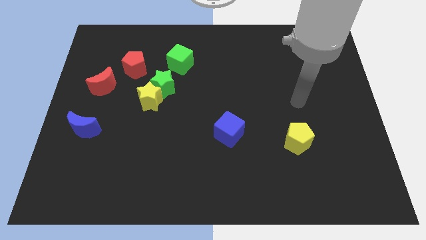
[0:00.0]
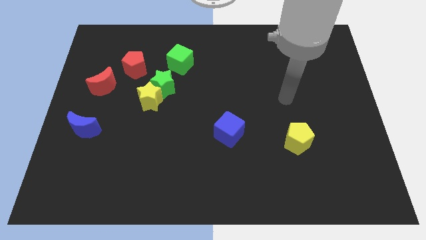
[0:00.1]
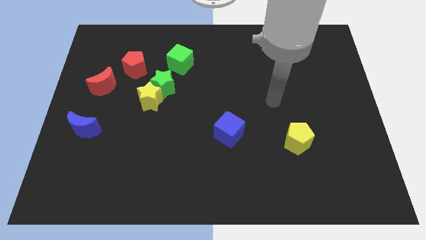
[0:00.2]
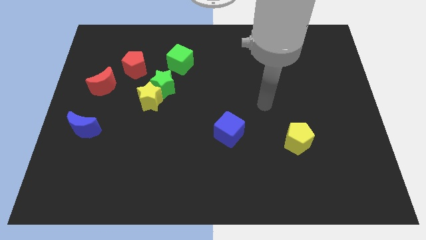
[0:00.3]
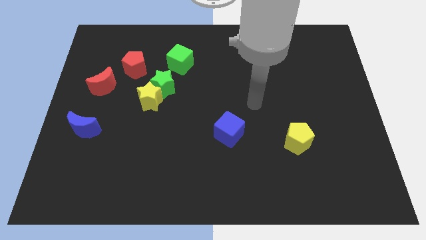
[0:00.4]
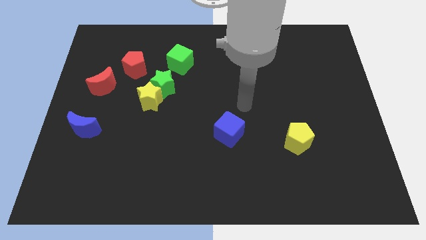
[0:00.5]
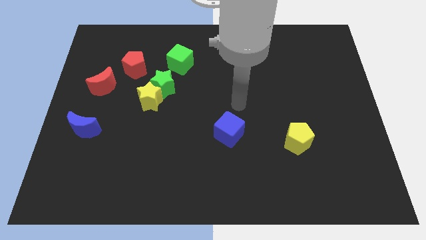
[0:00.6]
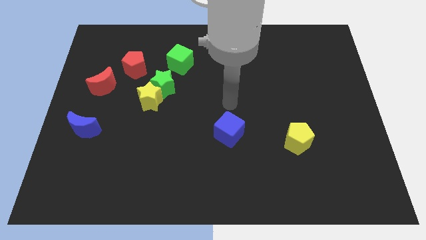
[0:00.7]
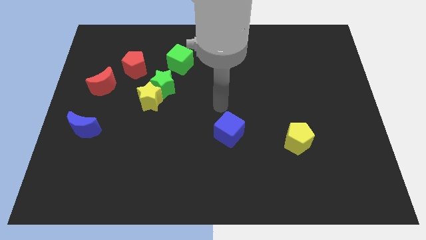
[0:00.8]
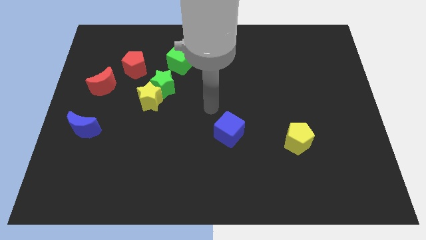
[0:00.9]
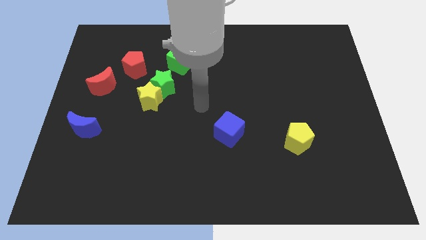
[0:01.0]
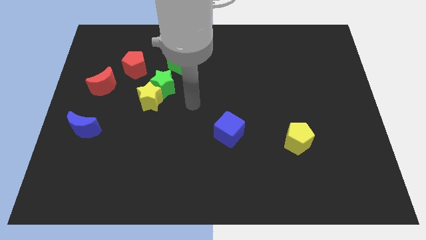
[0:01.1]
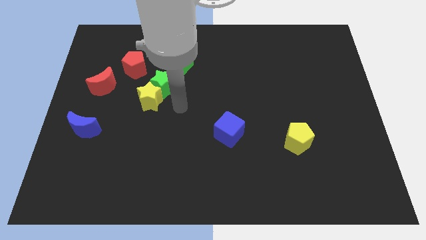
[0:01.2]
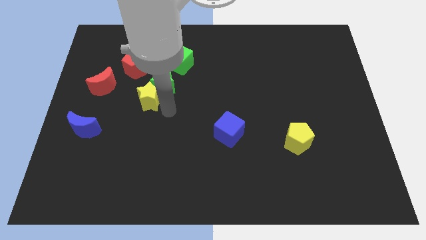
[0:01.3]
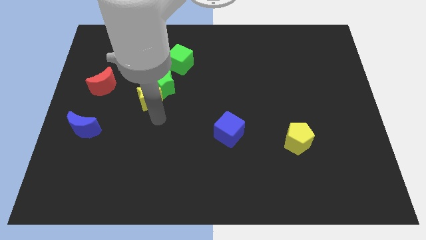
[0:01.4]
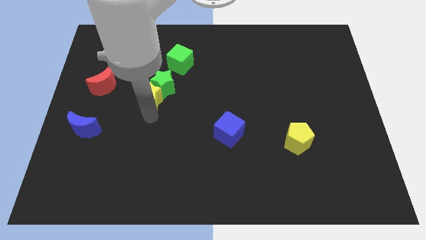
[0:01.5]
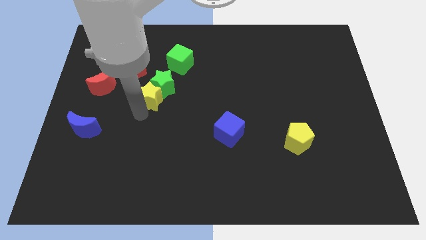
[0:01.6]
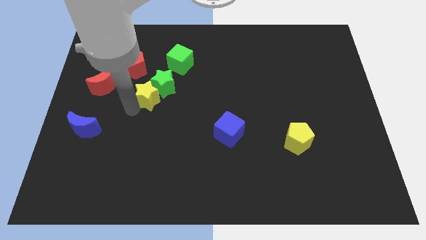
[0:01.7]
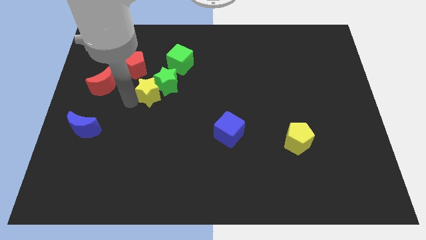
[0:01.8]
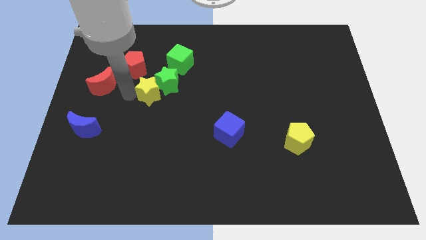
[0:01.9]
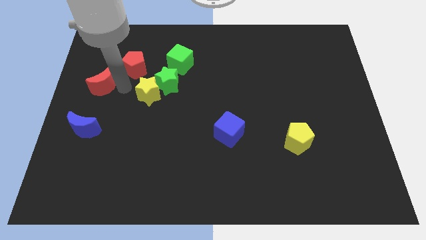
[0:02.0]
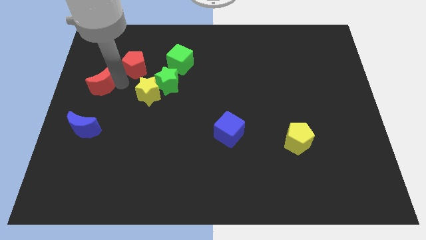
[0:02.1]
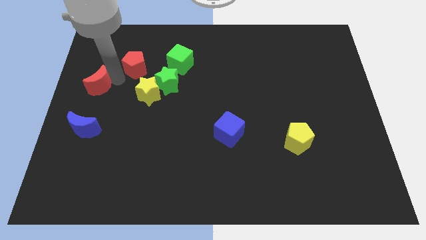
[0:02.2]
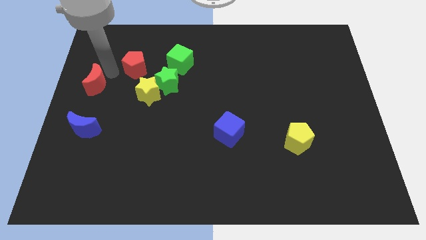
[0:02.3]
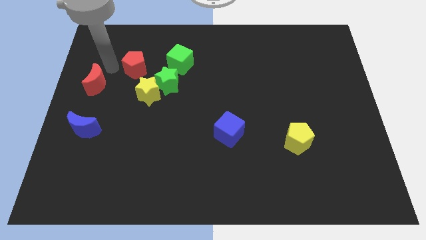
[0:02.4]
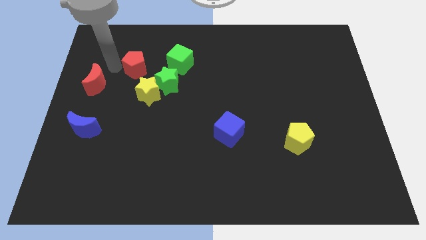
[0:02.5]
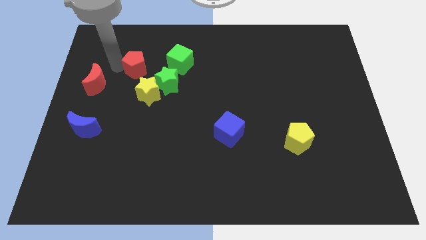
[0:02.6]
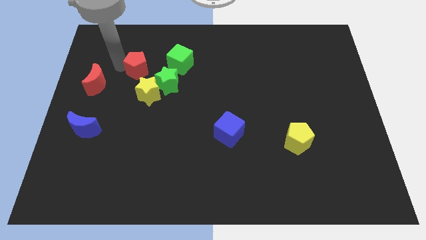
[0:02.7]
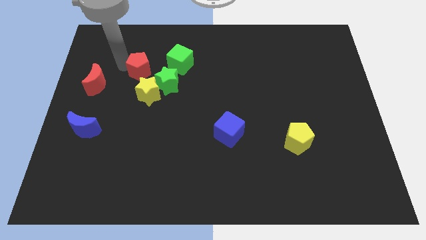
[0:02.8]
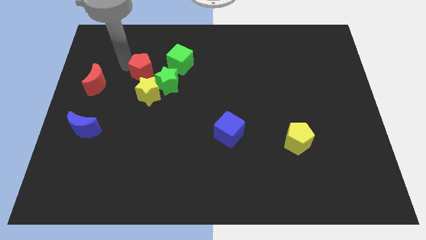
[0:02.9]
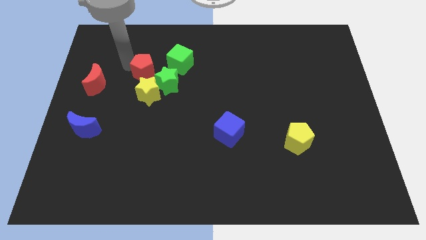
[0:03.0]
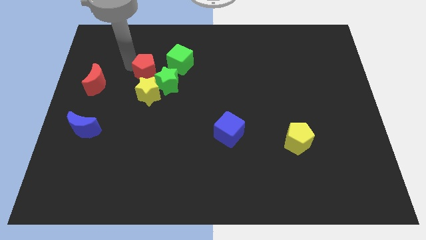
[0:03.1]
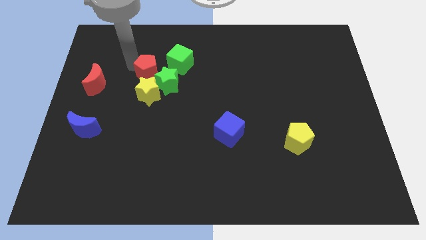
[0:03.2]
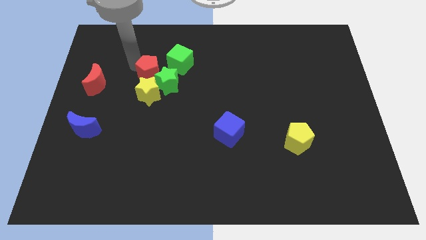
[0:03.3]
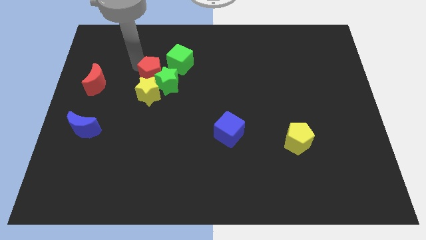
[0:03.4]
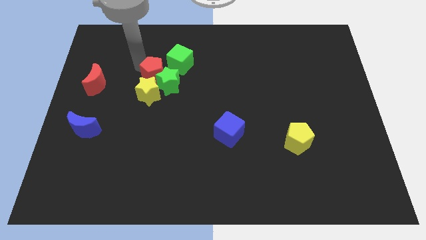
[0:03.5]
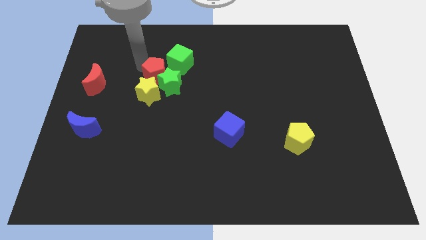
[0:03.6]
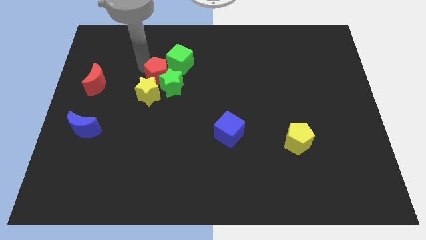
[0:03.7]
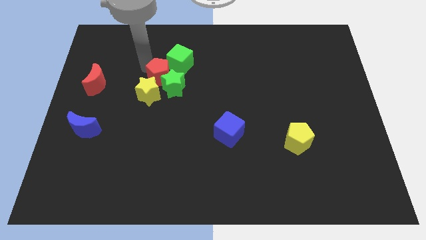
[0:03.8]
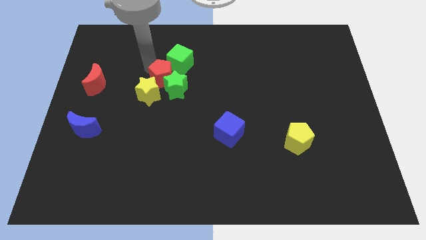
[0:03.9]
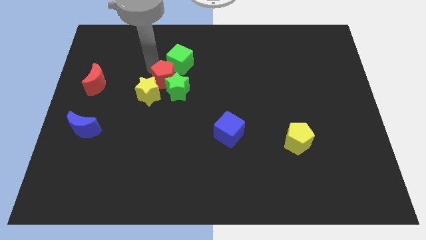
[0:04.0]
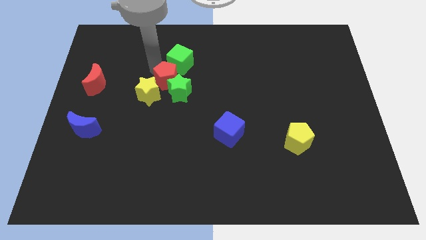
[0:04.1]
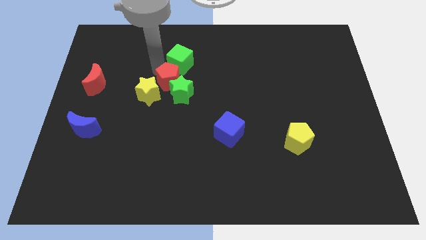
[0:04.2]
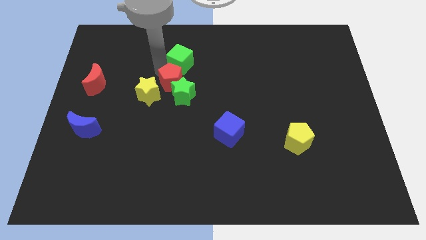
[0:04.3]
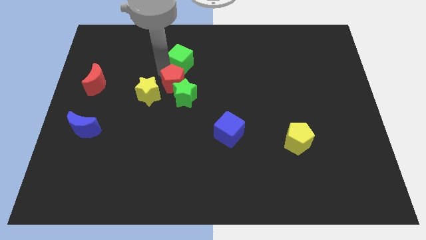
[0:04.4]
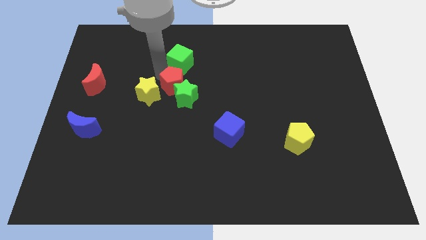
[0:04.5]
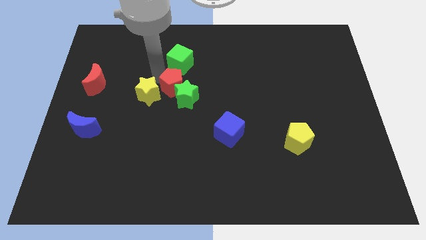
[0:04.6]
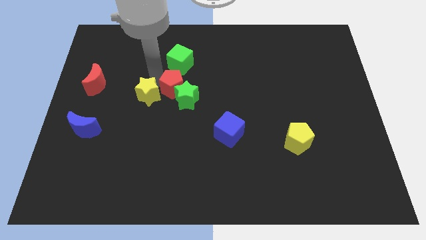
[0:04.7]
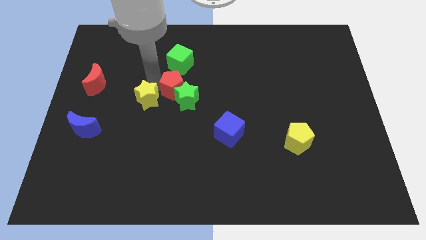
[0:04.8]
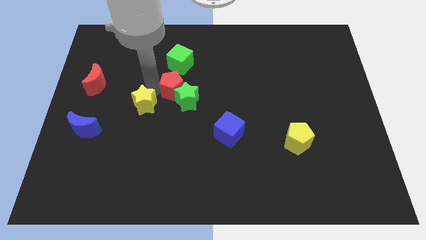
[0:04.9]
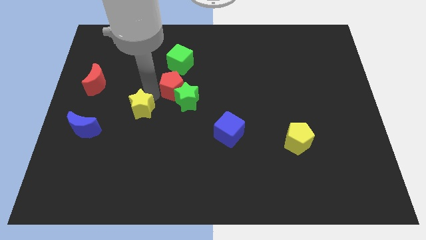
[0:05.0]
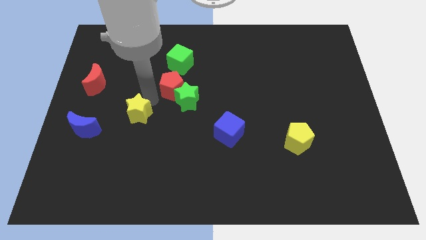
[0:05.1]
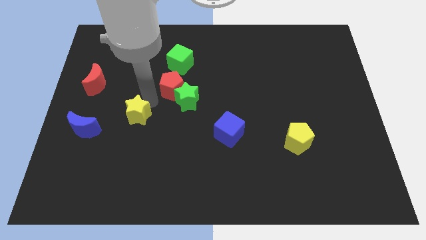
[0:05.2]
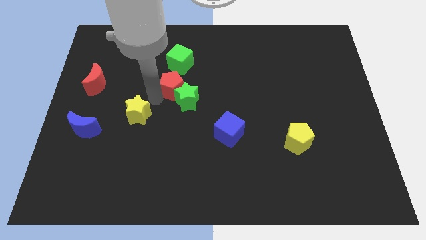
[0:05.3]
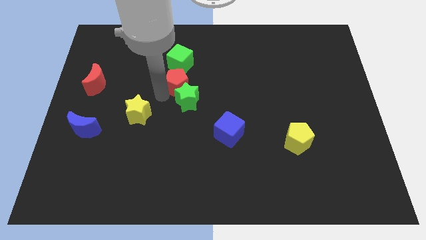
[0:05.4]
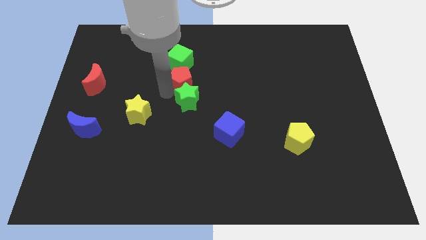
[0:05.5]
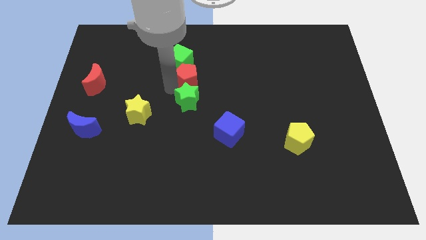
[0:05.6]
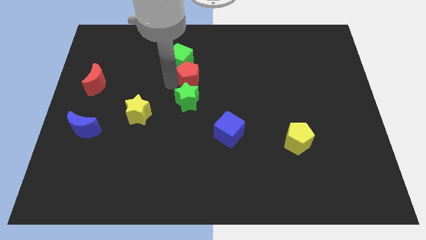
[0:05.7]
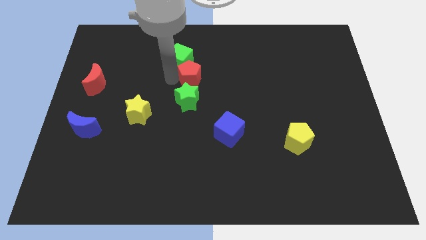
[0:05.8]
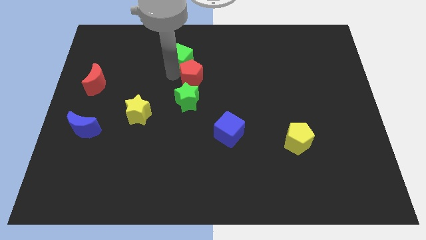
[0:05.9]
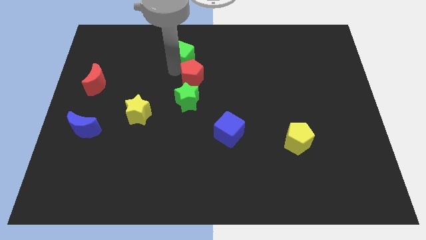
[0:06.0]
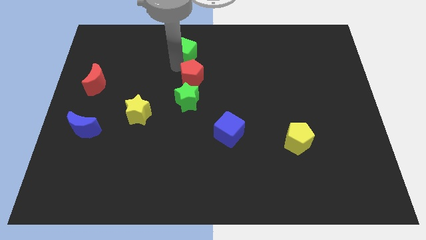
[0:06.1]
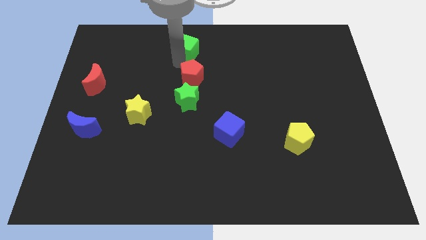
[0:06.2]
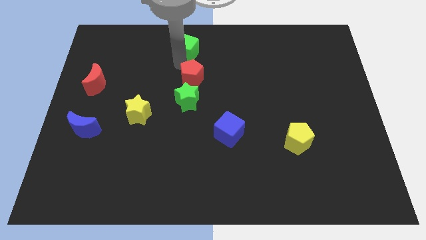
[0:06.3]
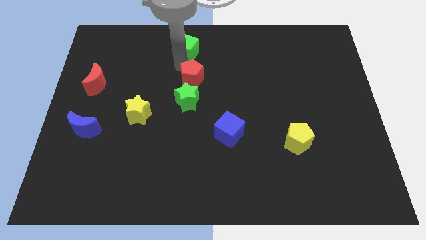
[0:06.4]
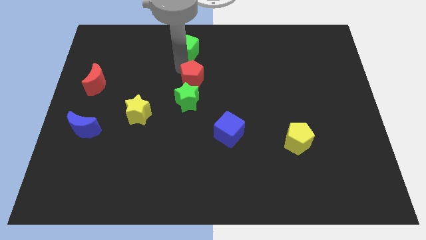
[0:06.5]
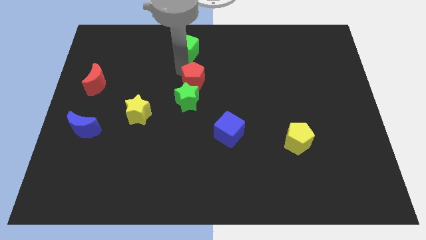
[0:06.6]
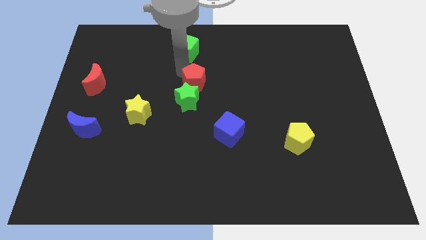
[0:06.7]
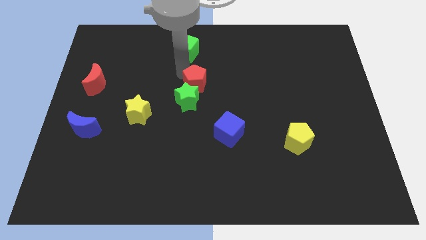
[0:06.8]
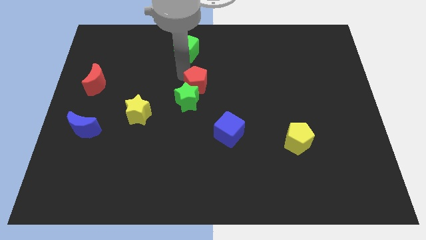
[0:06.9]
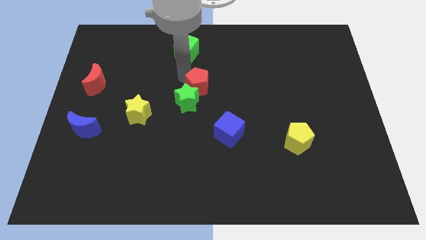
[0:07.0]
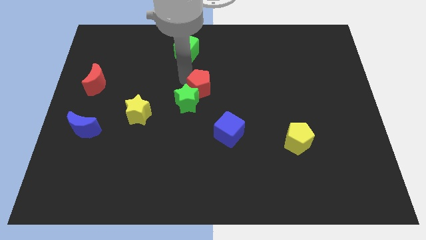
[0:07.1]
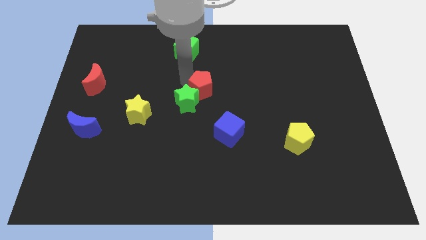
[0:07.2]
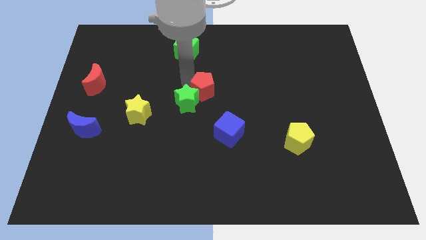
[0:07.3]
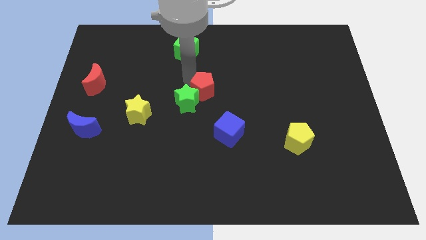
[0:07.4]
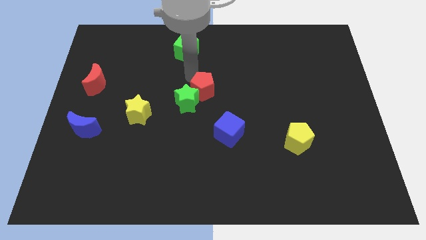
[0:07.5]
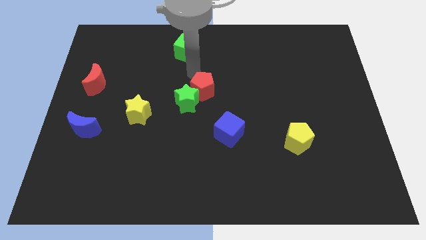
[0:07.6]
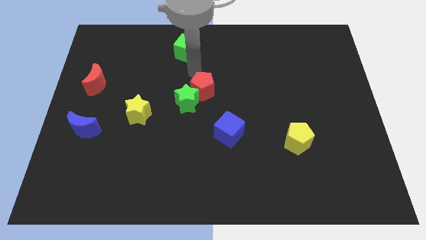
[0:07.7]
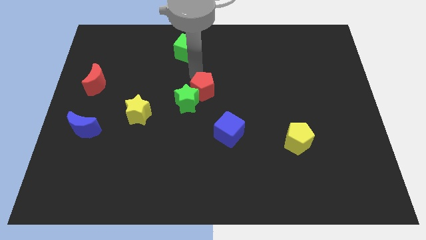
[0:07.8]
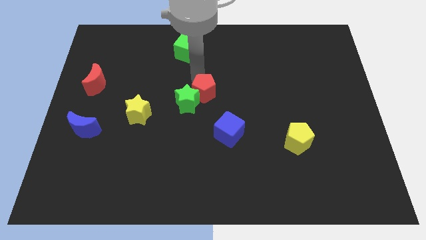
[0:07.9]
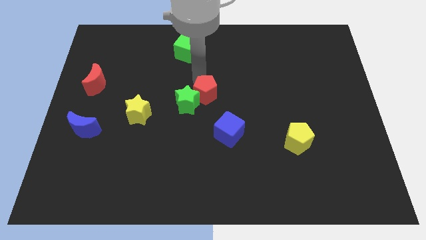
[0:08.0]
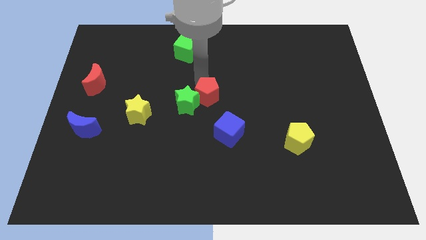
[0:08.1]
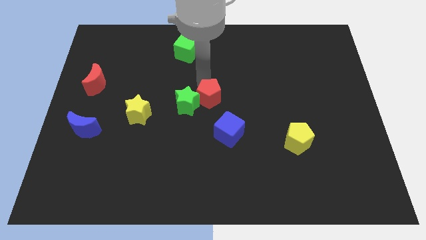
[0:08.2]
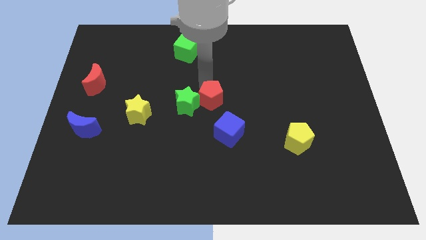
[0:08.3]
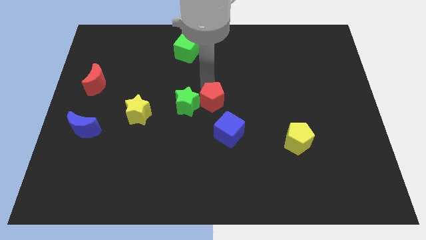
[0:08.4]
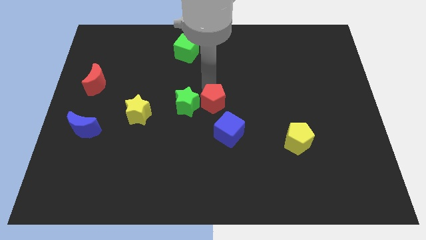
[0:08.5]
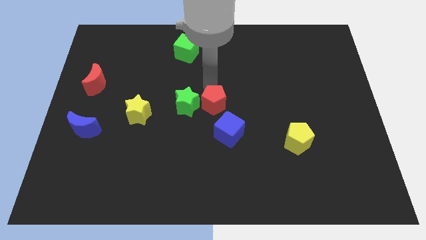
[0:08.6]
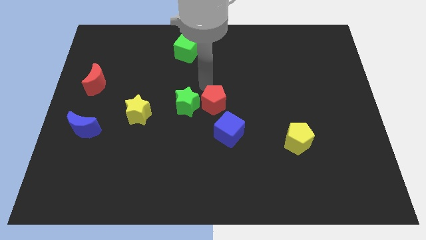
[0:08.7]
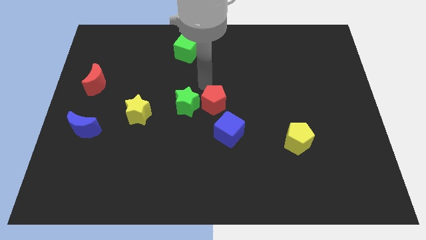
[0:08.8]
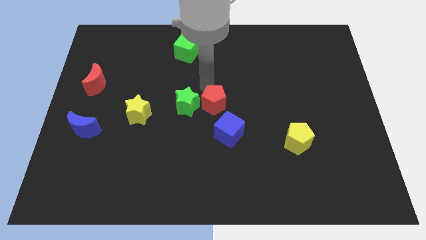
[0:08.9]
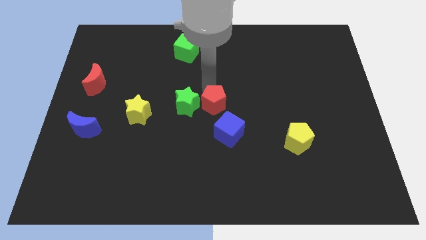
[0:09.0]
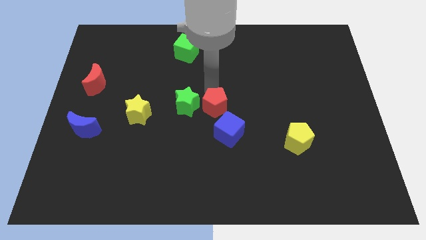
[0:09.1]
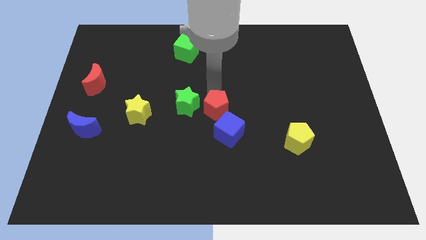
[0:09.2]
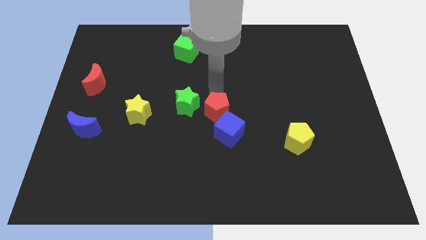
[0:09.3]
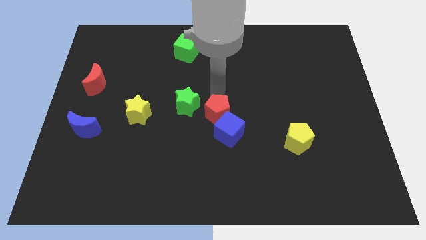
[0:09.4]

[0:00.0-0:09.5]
move the red pentagon to the blue cube
